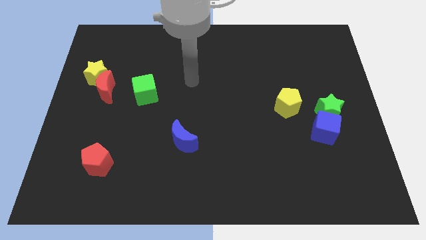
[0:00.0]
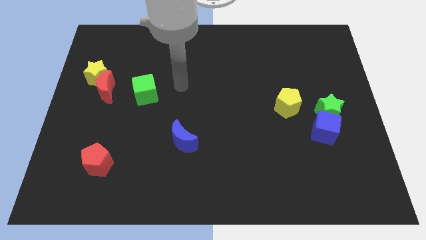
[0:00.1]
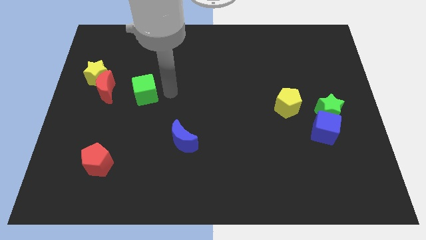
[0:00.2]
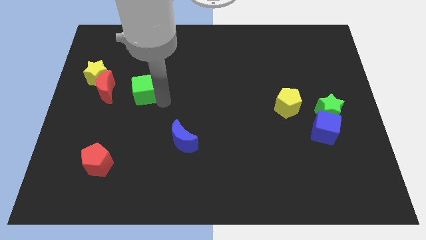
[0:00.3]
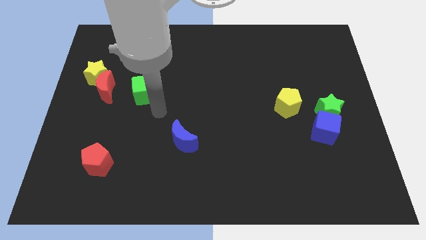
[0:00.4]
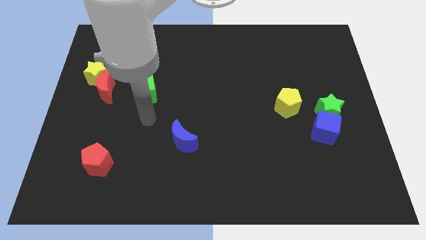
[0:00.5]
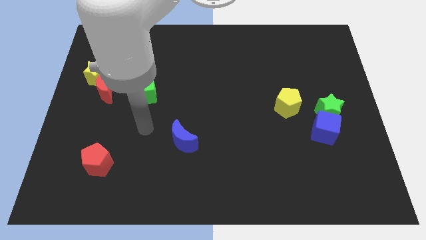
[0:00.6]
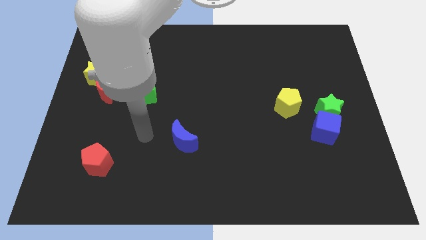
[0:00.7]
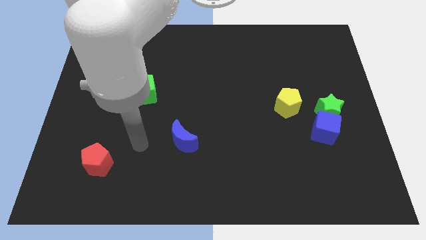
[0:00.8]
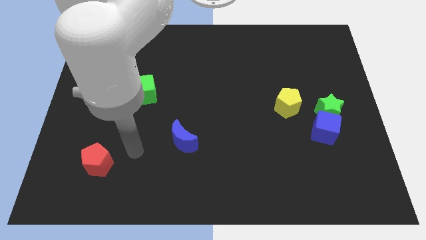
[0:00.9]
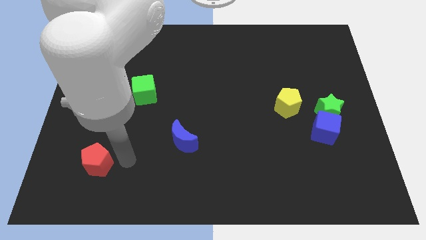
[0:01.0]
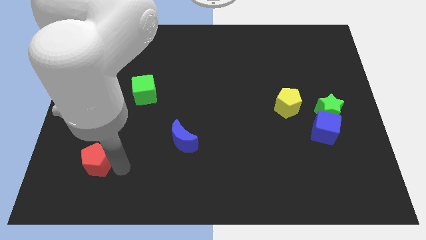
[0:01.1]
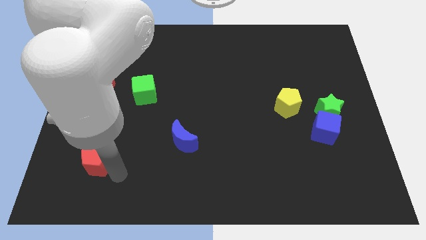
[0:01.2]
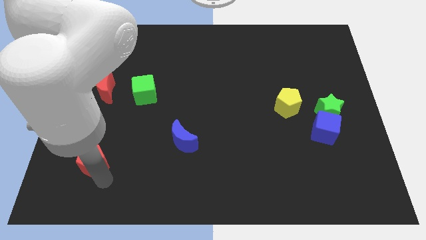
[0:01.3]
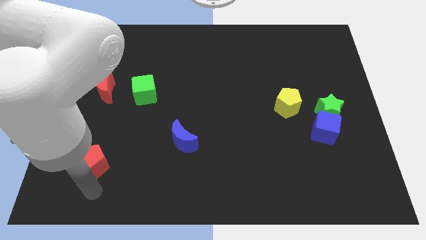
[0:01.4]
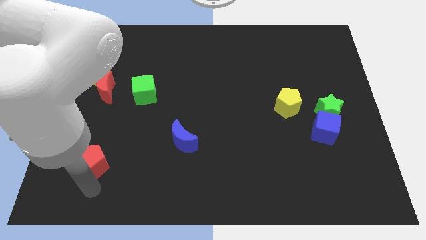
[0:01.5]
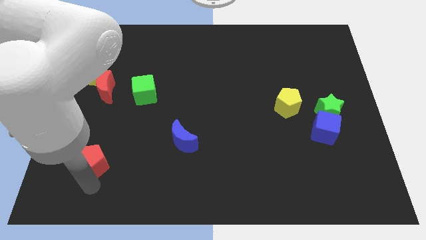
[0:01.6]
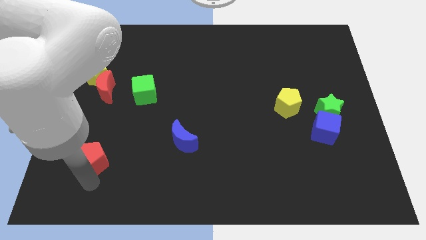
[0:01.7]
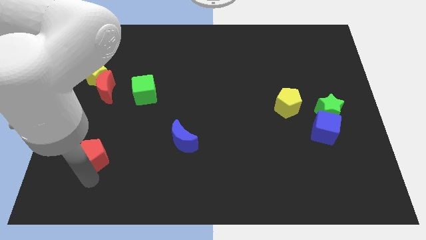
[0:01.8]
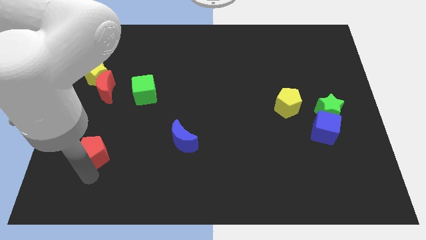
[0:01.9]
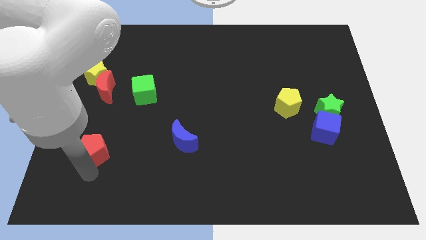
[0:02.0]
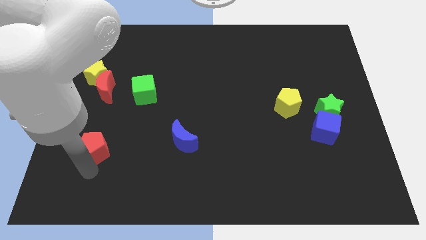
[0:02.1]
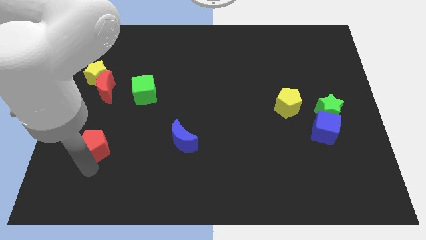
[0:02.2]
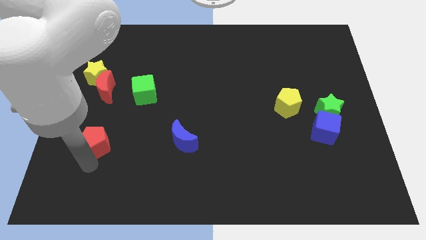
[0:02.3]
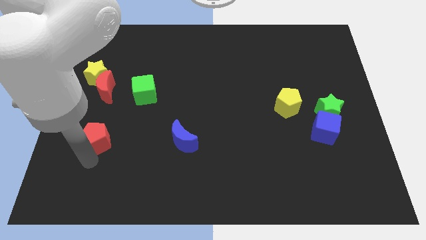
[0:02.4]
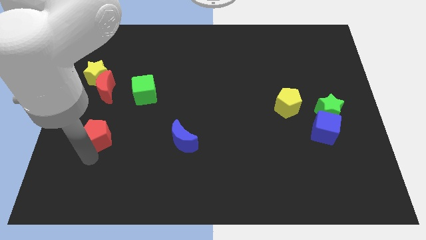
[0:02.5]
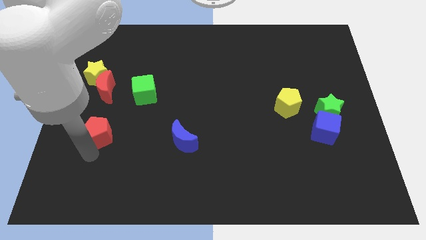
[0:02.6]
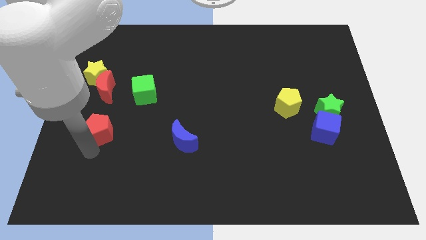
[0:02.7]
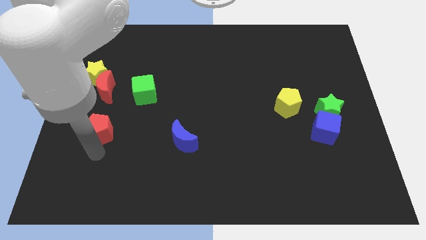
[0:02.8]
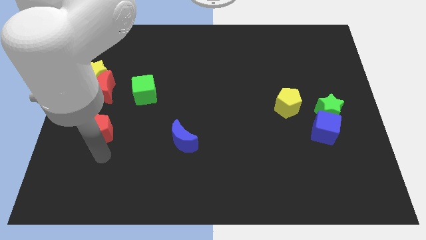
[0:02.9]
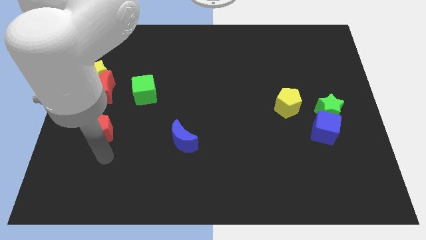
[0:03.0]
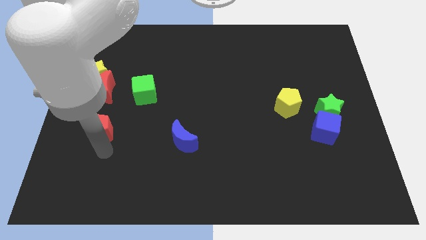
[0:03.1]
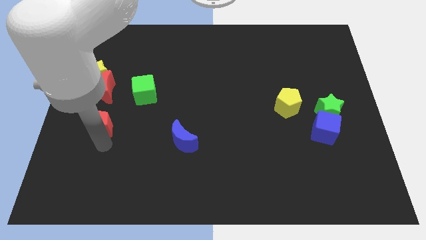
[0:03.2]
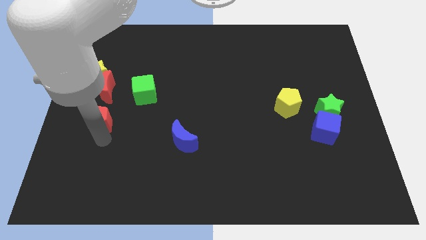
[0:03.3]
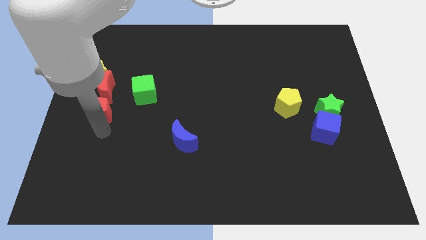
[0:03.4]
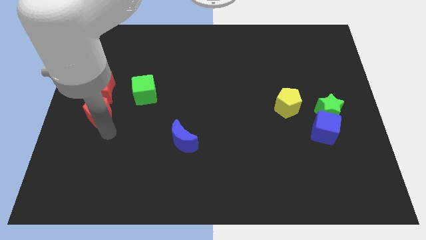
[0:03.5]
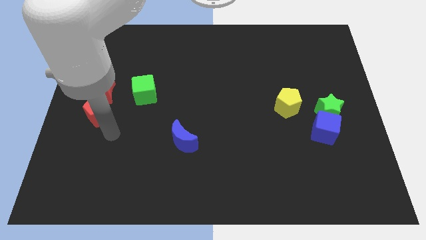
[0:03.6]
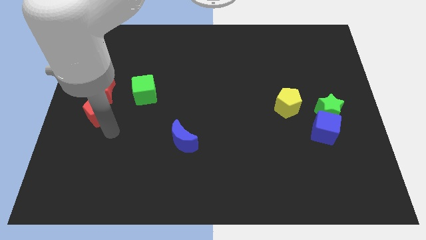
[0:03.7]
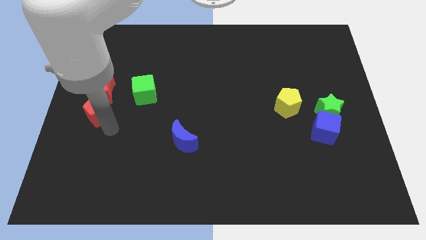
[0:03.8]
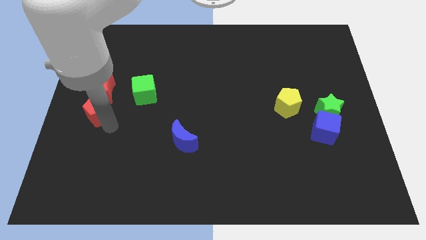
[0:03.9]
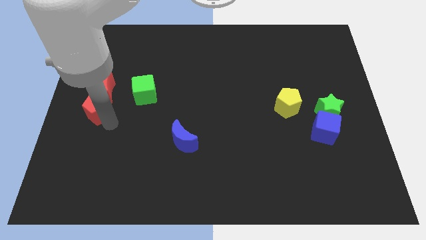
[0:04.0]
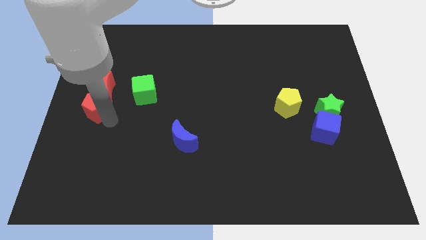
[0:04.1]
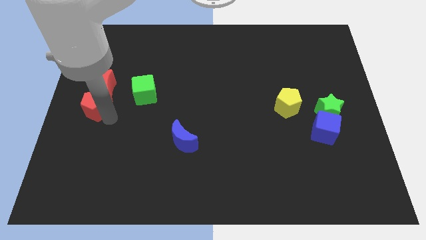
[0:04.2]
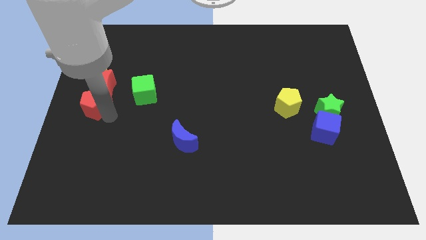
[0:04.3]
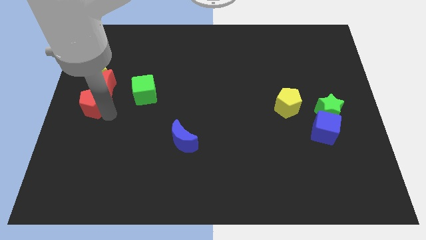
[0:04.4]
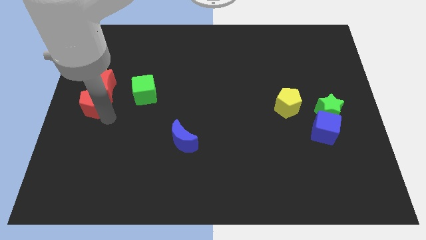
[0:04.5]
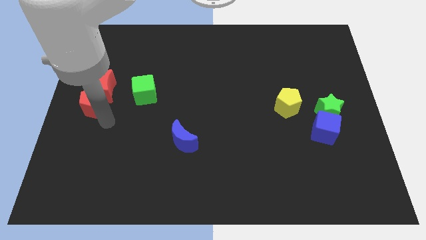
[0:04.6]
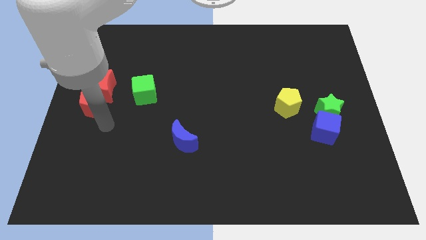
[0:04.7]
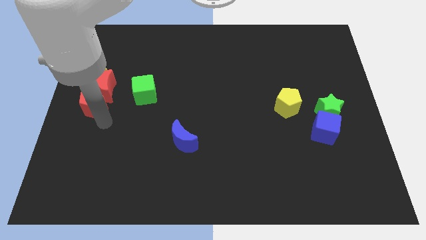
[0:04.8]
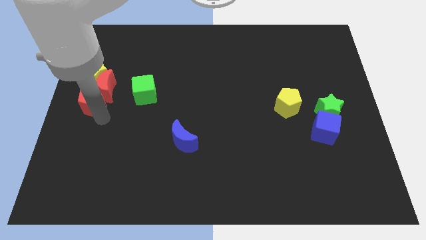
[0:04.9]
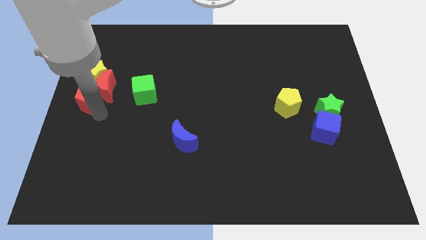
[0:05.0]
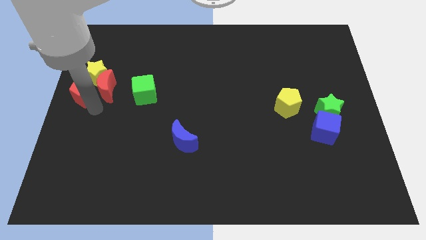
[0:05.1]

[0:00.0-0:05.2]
push the red pentagon next to the yellow star

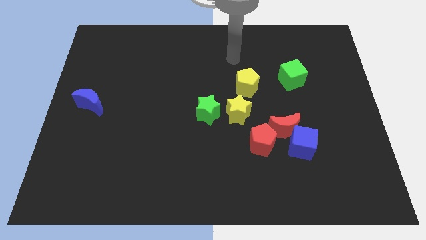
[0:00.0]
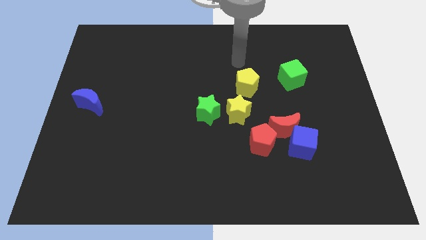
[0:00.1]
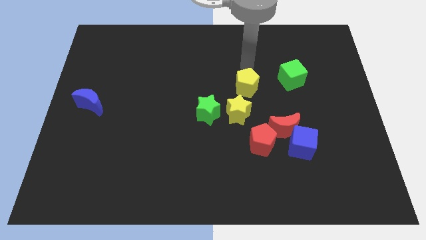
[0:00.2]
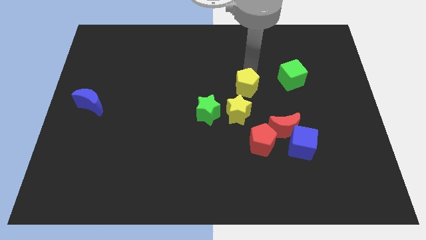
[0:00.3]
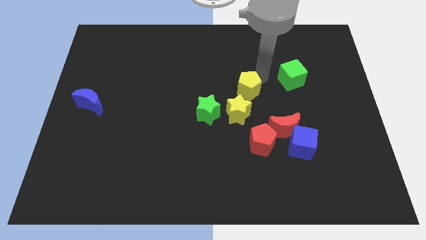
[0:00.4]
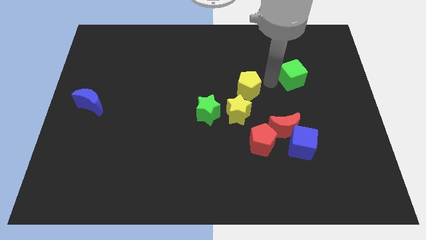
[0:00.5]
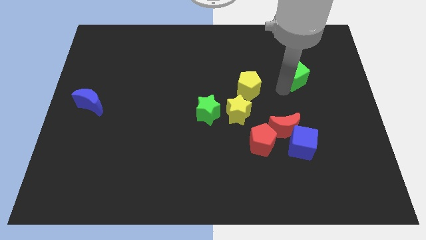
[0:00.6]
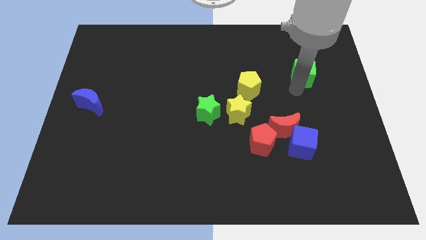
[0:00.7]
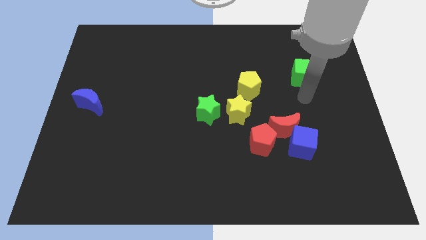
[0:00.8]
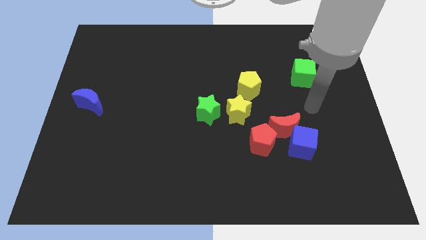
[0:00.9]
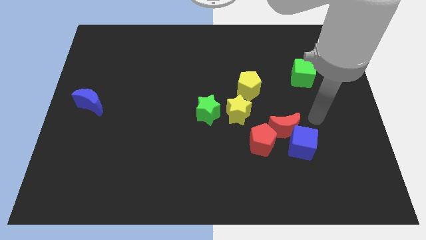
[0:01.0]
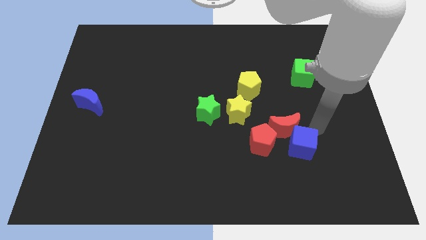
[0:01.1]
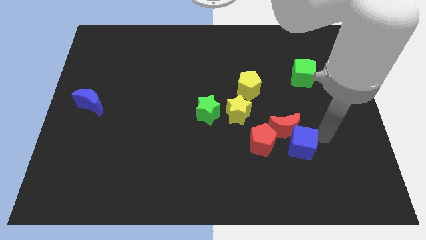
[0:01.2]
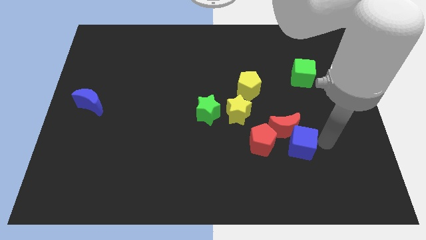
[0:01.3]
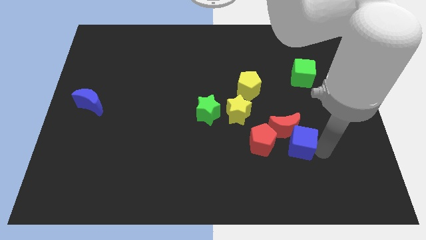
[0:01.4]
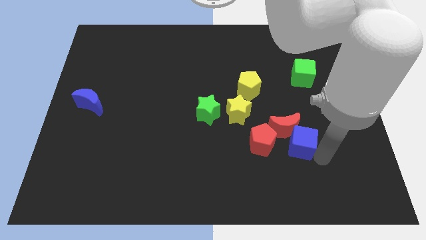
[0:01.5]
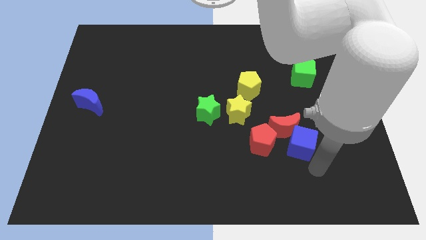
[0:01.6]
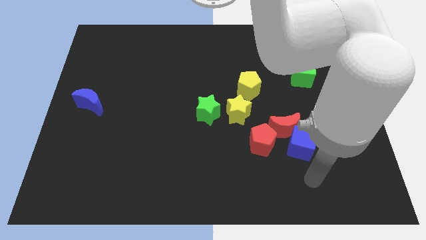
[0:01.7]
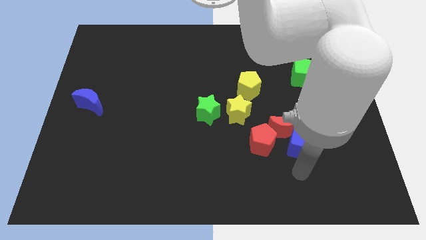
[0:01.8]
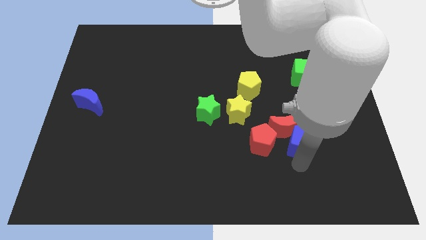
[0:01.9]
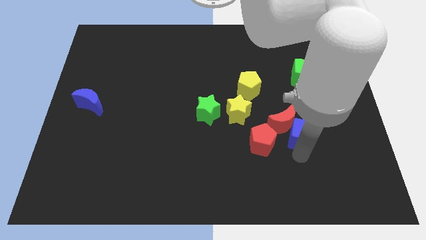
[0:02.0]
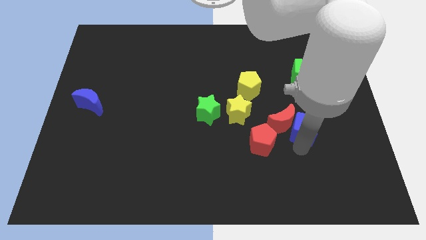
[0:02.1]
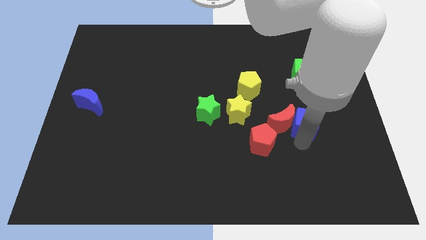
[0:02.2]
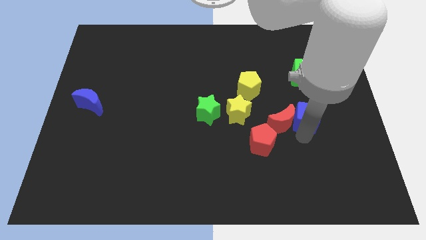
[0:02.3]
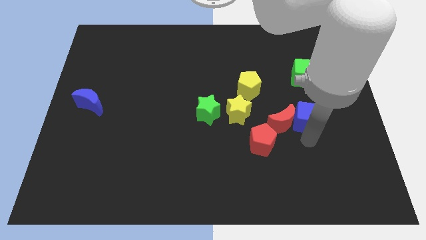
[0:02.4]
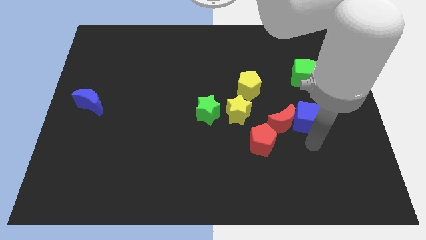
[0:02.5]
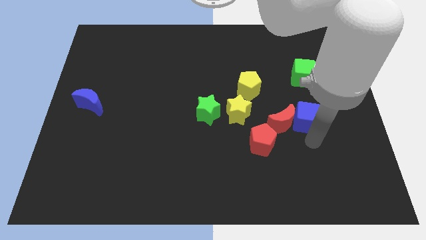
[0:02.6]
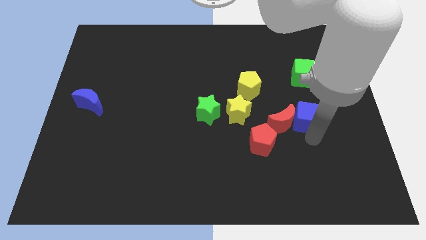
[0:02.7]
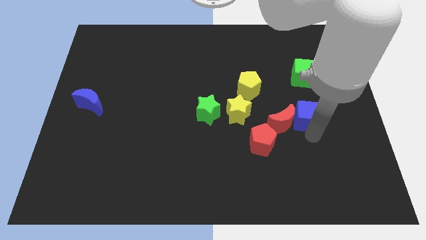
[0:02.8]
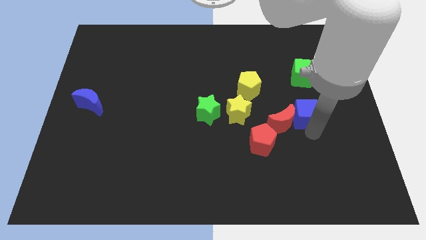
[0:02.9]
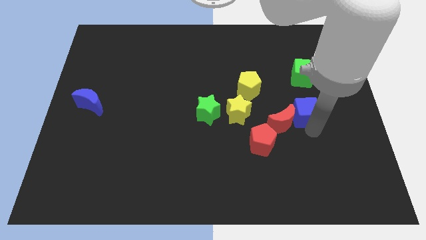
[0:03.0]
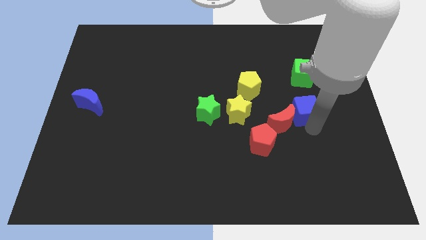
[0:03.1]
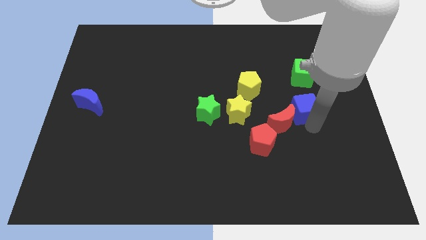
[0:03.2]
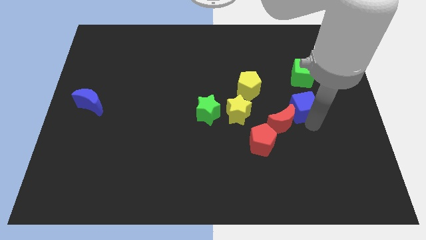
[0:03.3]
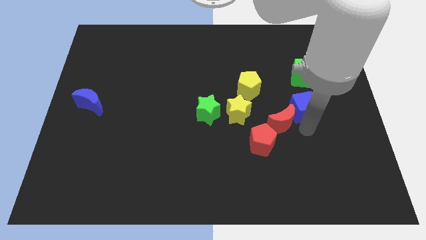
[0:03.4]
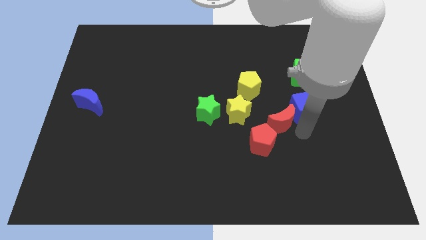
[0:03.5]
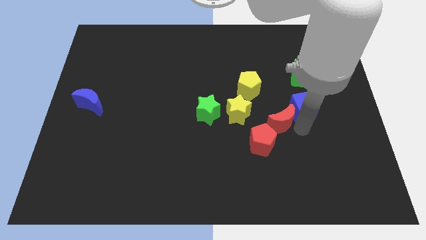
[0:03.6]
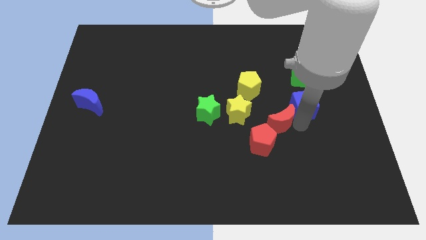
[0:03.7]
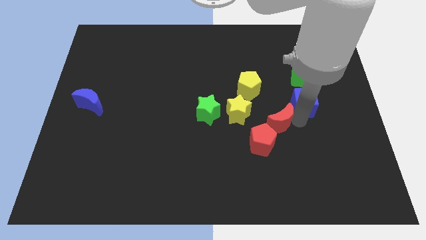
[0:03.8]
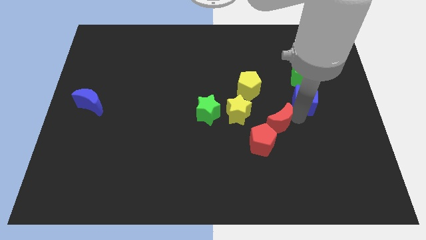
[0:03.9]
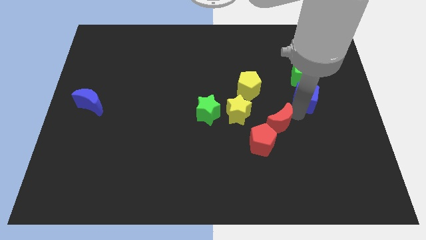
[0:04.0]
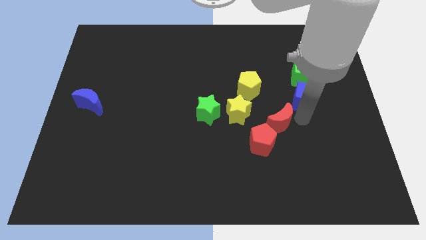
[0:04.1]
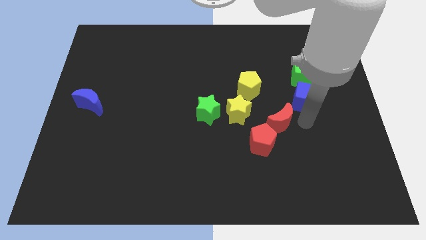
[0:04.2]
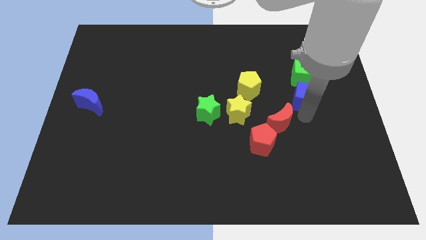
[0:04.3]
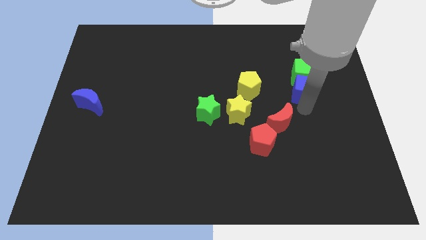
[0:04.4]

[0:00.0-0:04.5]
move the blue cube close to the green cube
